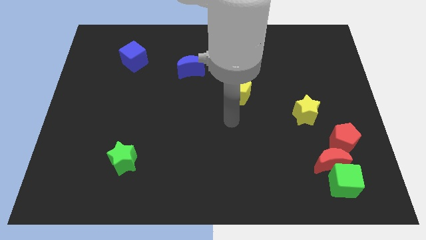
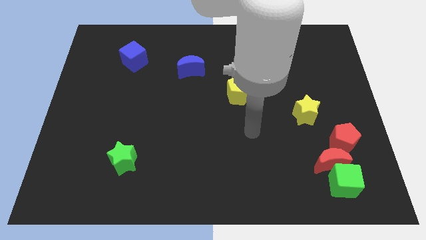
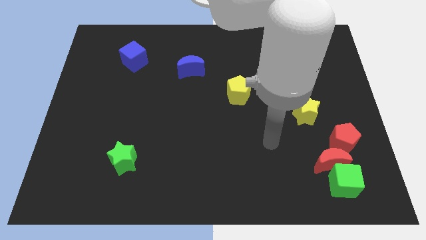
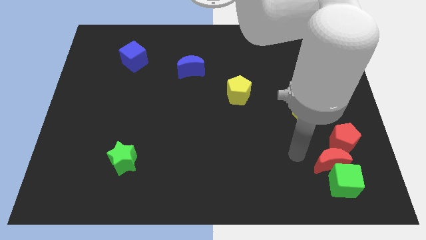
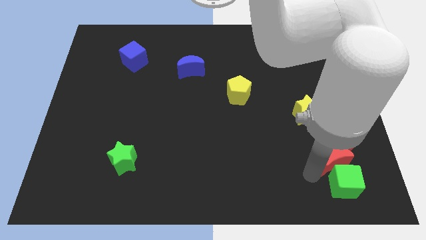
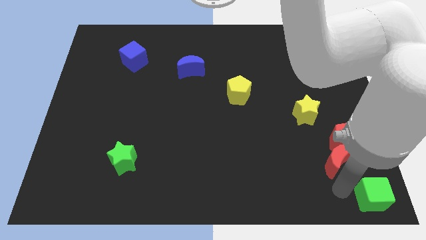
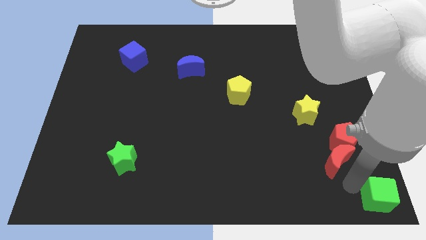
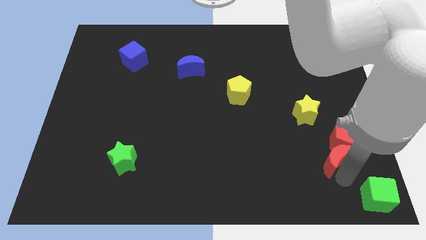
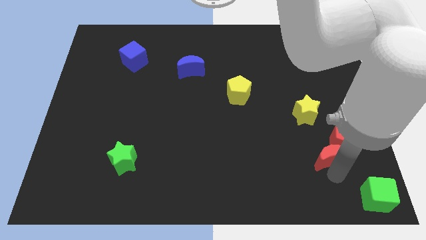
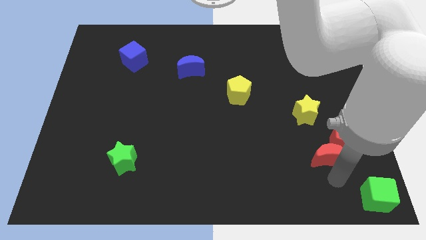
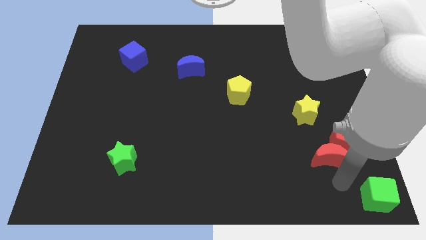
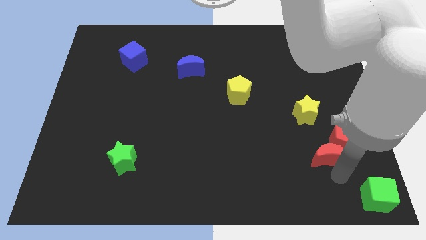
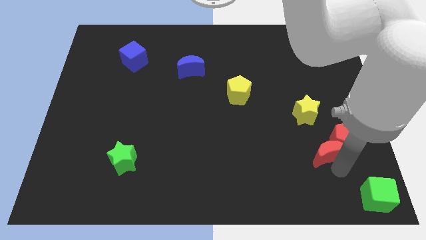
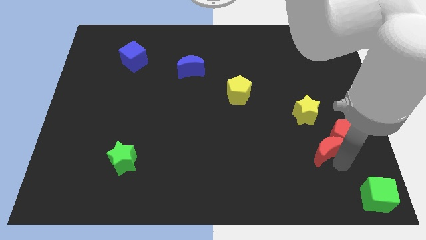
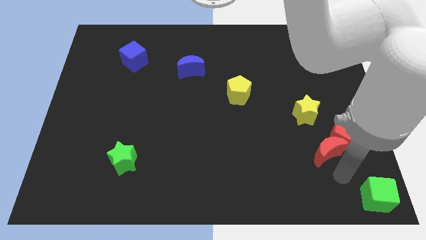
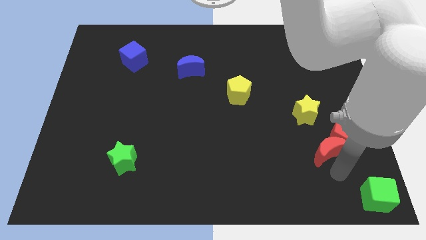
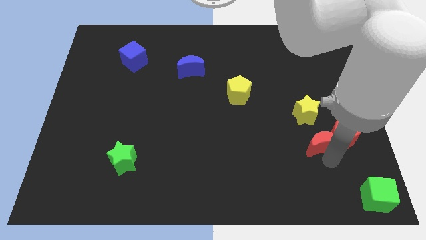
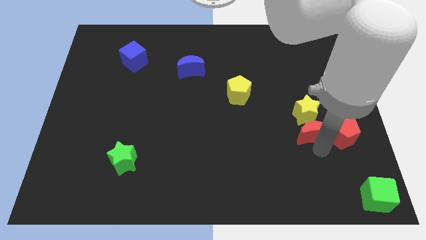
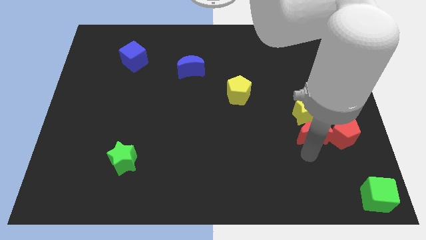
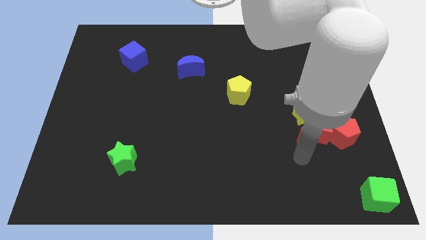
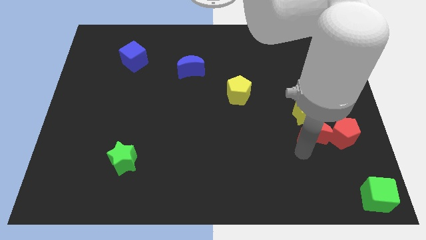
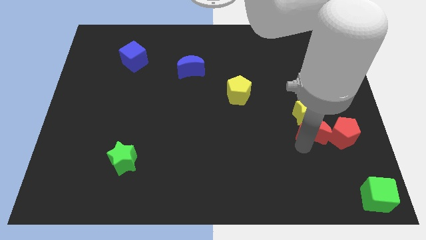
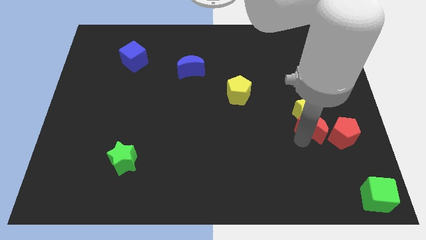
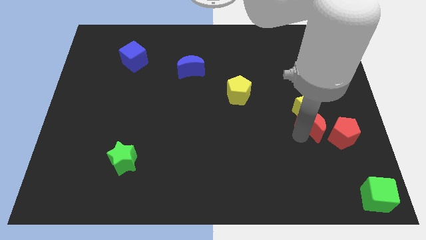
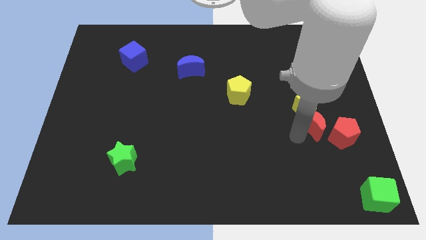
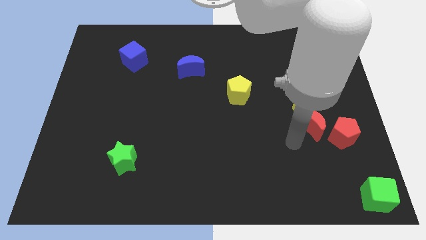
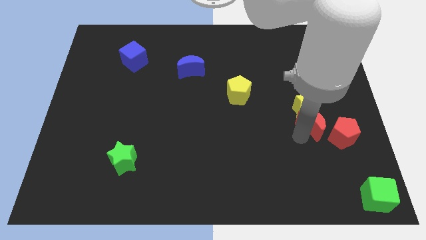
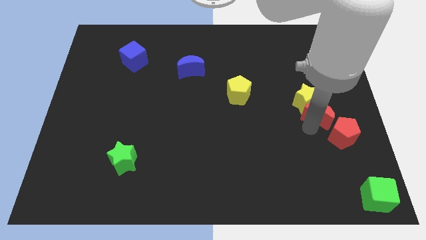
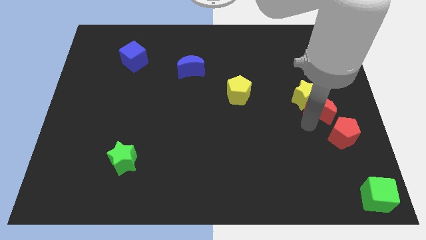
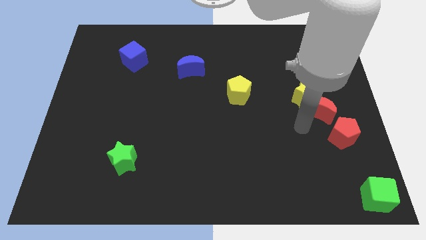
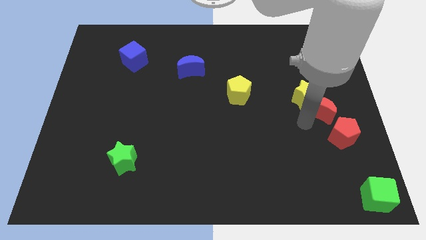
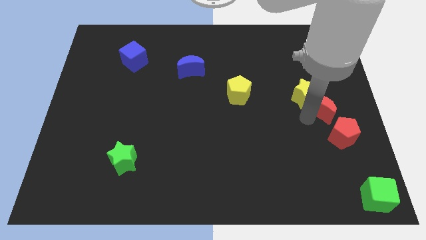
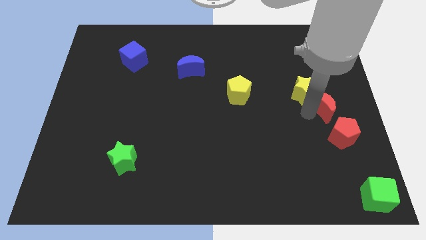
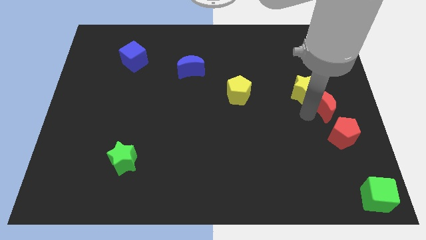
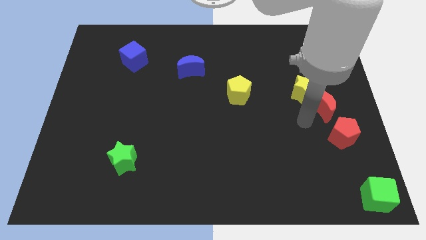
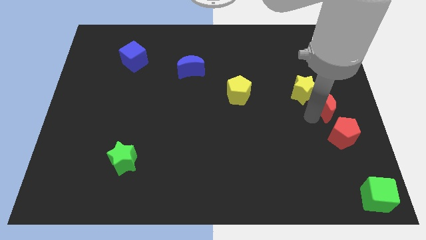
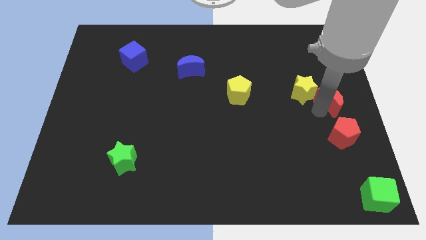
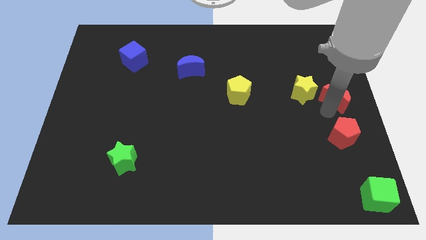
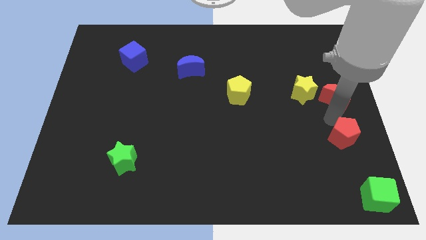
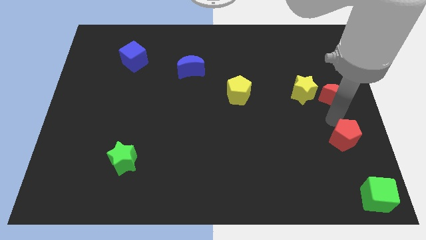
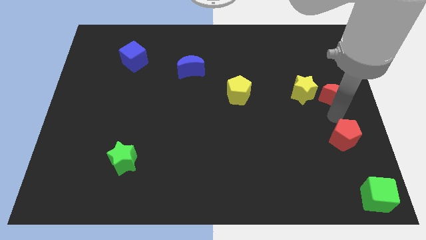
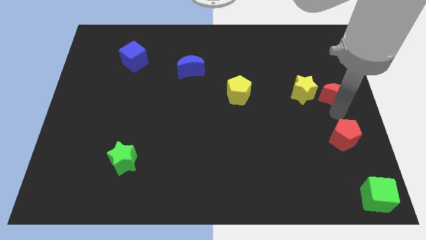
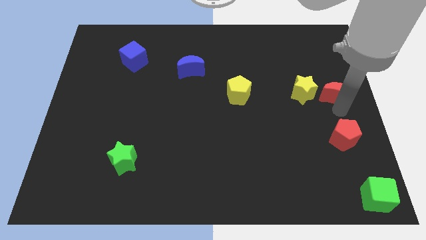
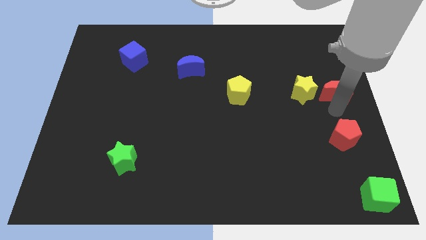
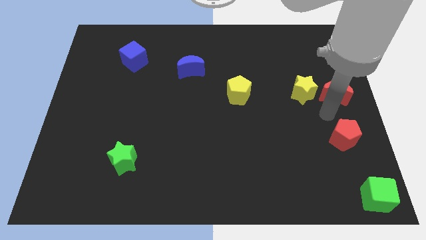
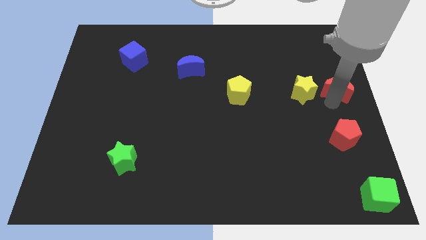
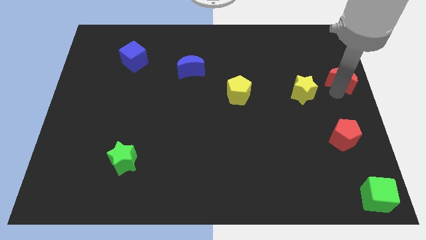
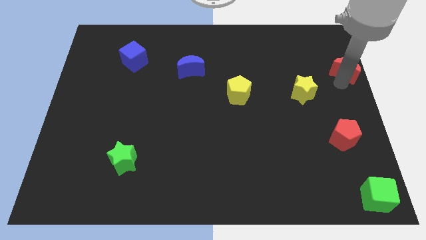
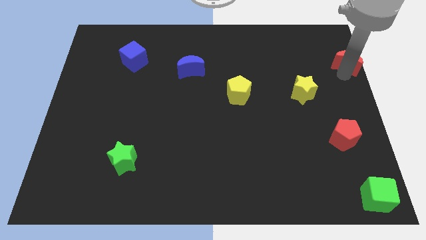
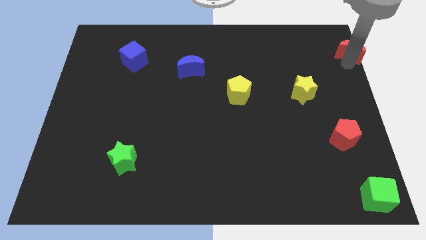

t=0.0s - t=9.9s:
push the red moon to the top right

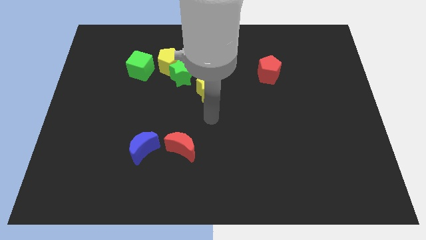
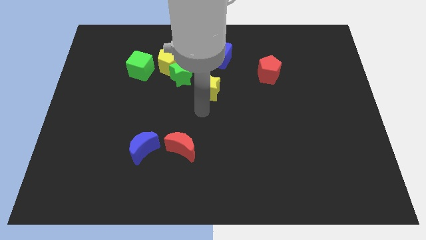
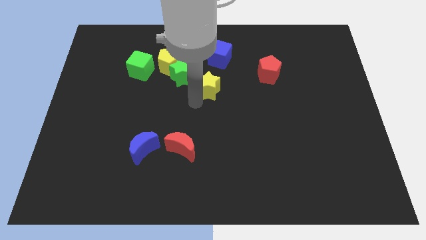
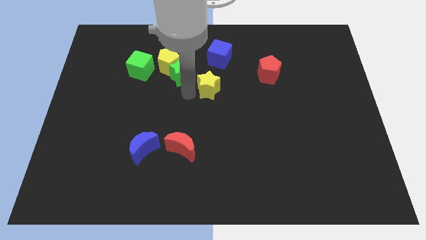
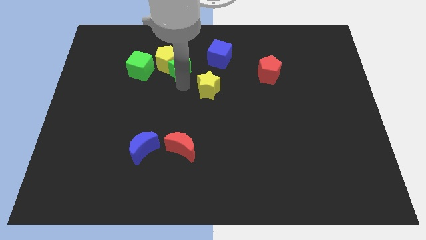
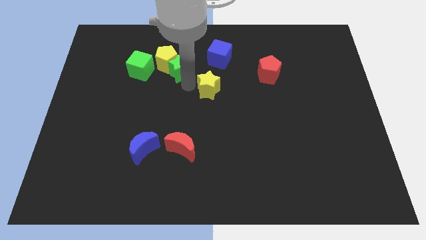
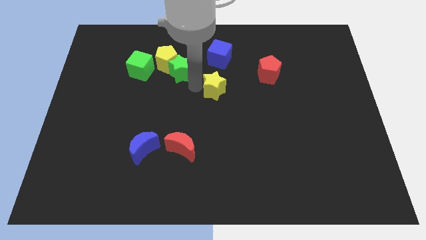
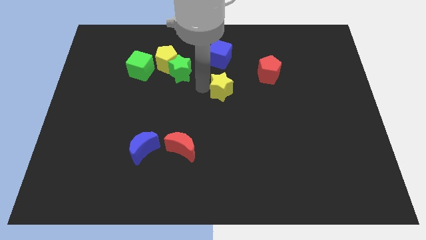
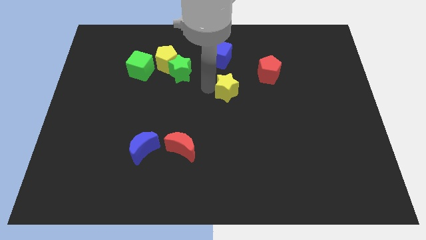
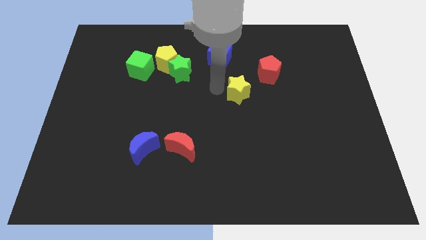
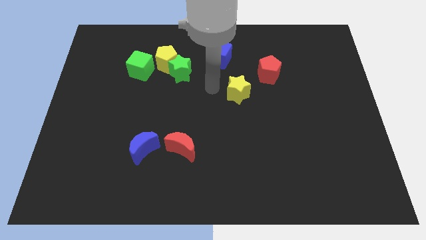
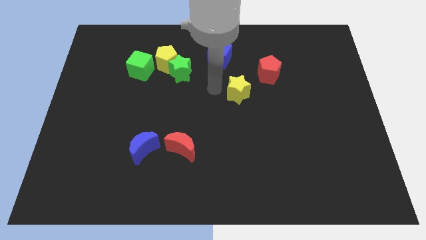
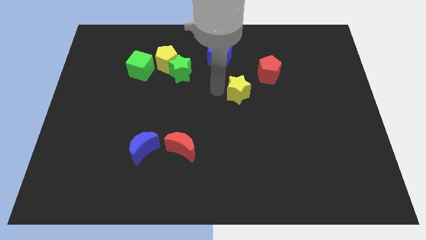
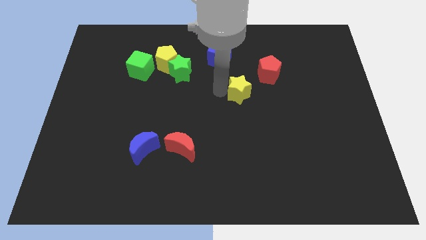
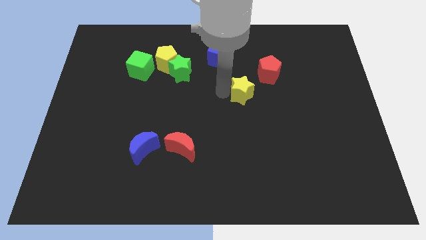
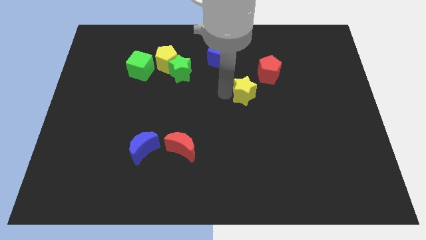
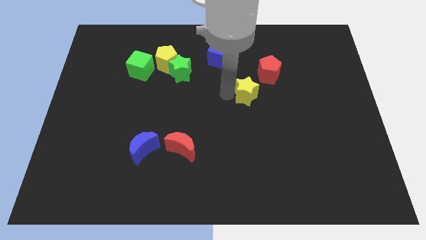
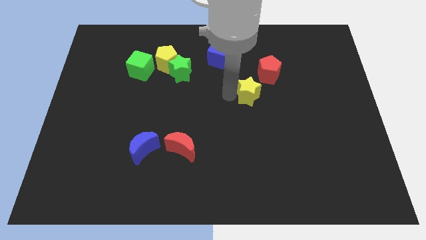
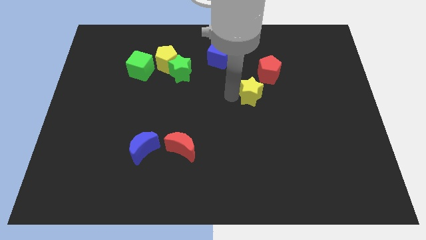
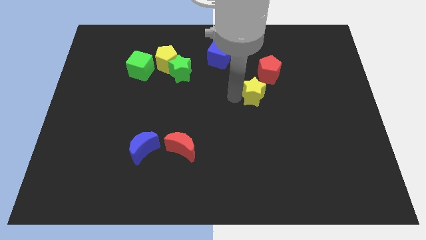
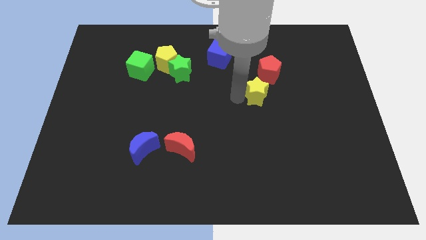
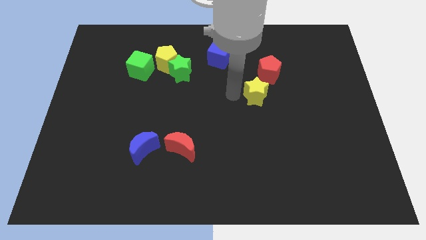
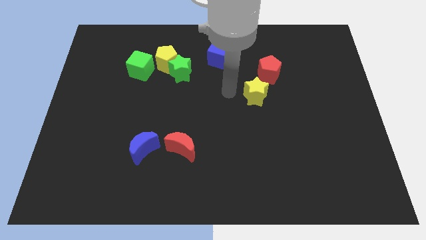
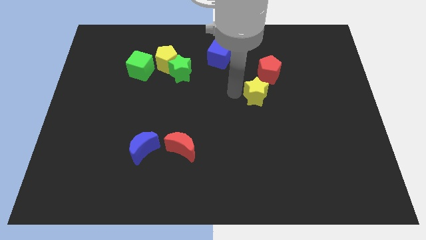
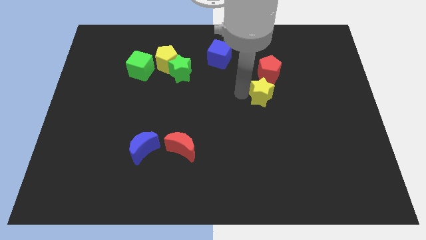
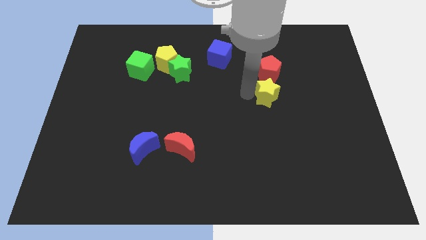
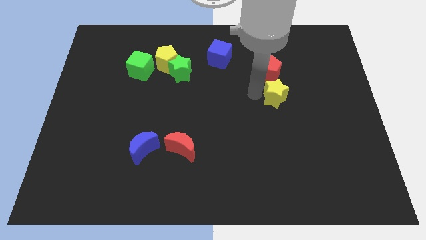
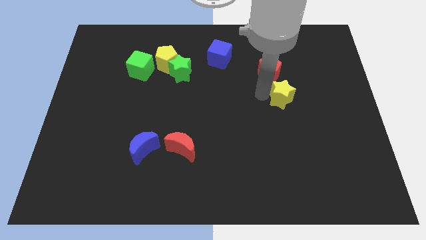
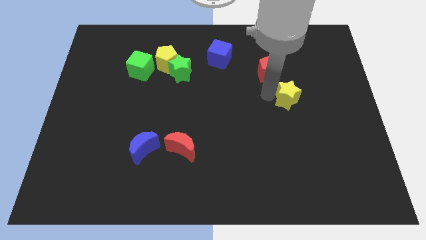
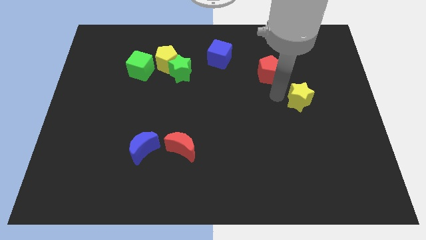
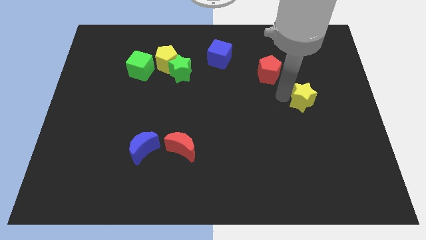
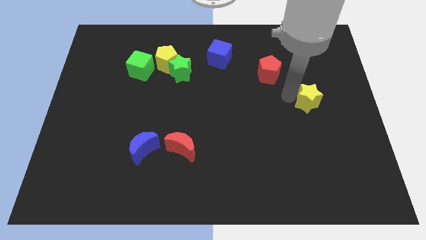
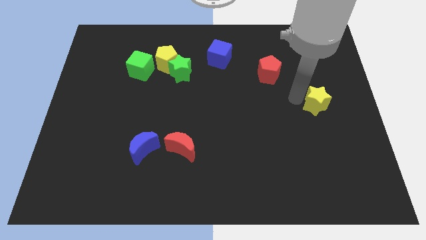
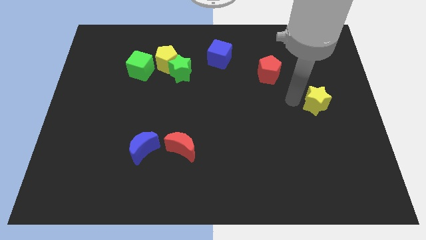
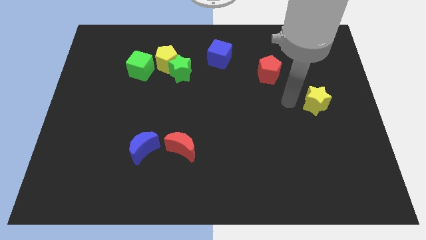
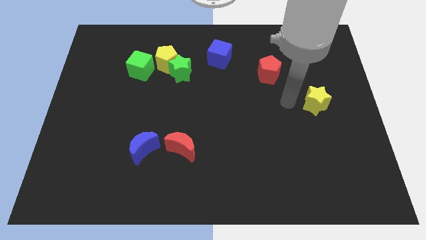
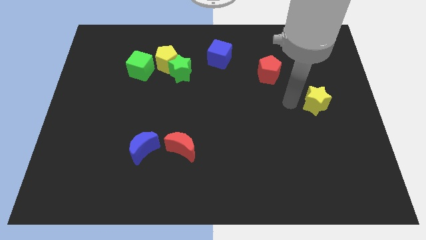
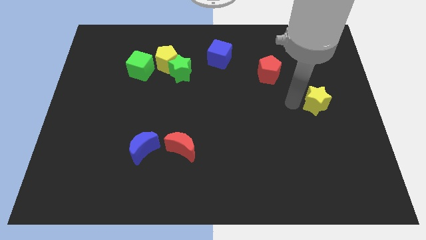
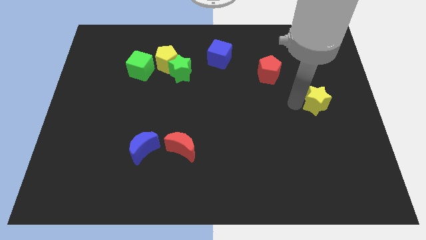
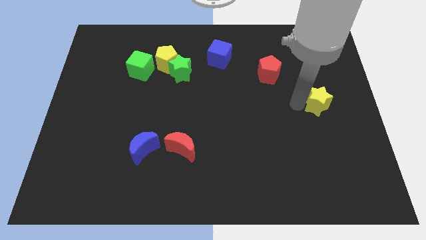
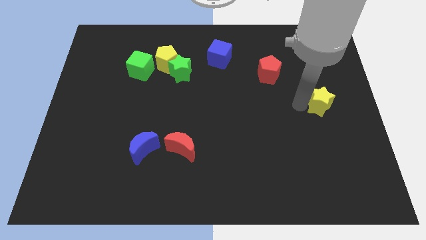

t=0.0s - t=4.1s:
move the yellow star to the right side
